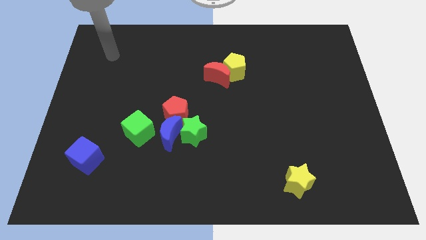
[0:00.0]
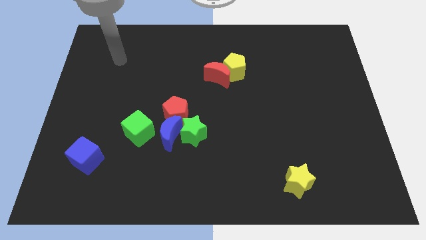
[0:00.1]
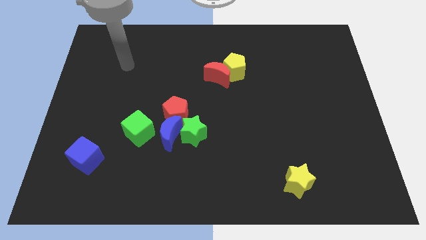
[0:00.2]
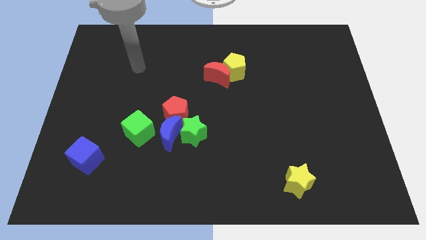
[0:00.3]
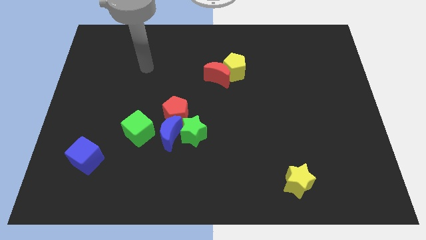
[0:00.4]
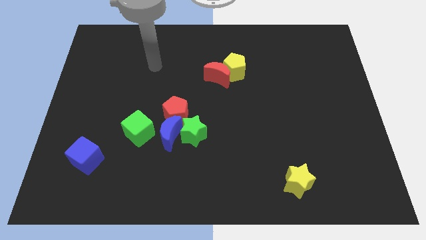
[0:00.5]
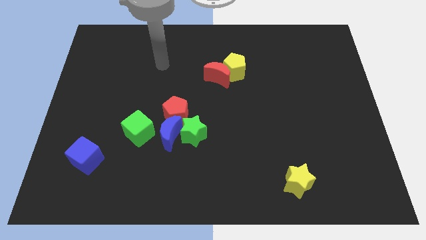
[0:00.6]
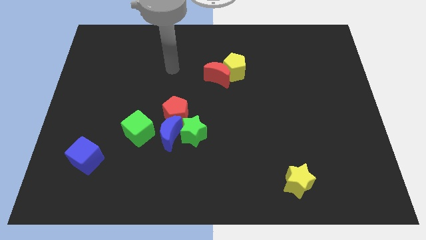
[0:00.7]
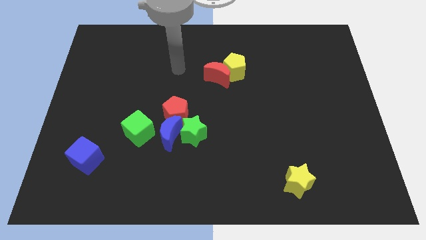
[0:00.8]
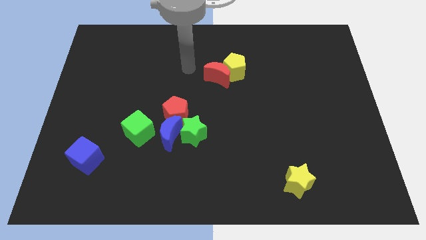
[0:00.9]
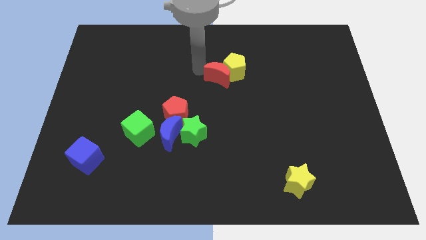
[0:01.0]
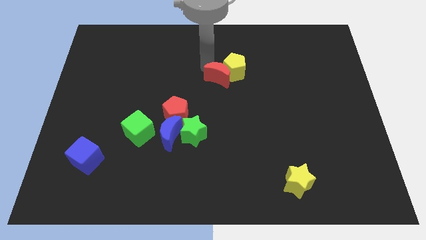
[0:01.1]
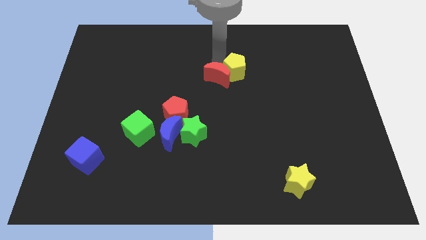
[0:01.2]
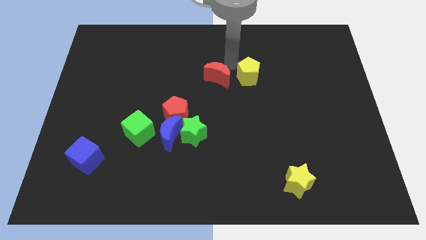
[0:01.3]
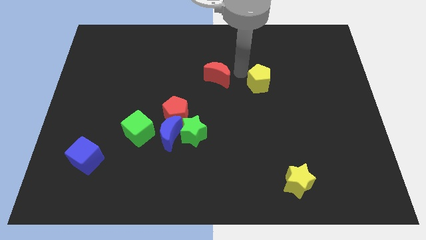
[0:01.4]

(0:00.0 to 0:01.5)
move the red moon away from the yellow pentagon

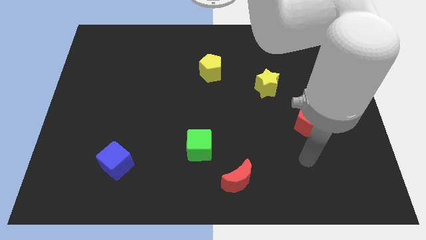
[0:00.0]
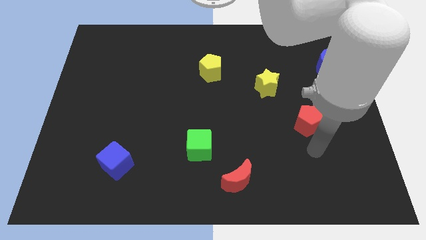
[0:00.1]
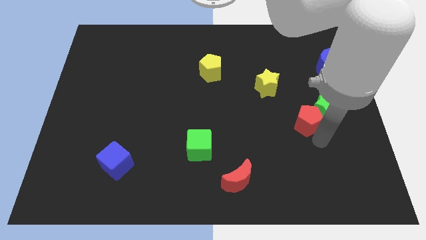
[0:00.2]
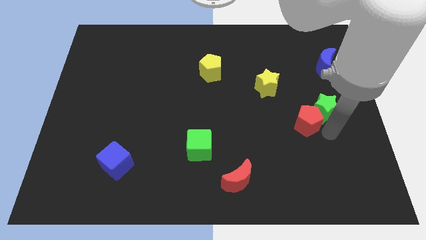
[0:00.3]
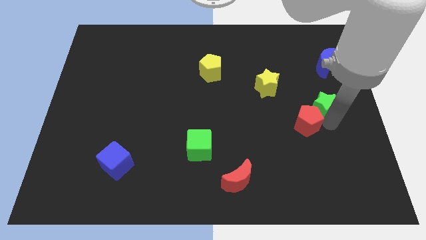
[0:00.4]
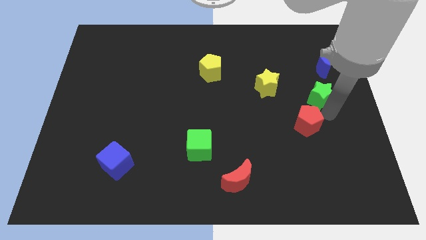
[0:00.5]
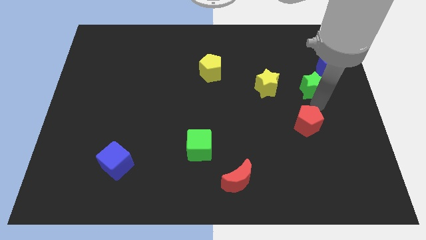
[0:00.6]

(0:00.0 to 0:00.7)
pull the red pentagon apart from the green star

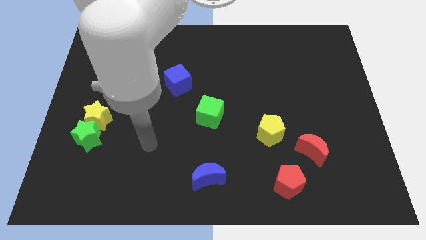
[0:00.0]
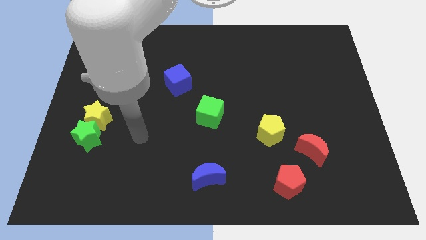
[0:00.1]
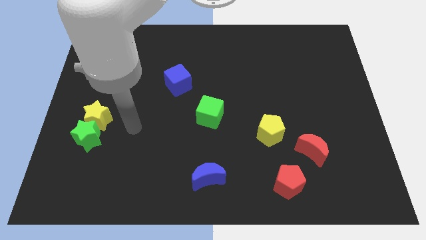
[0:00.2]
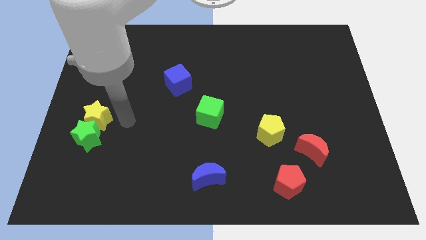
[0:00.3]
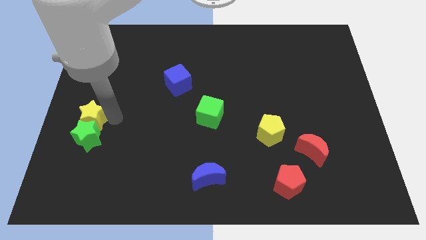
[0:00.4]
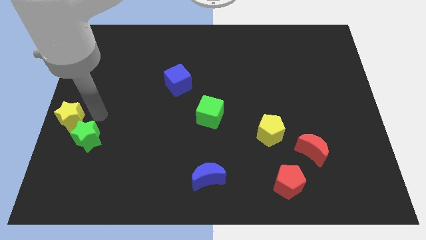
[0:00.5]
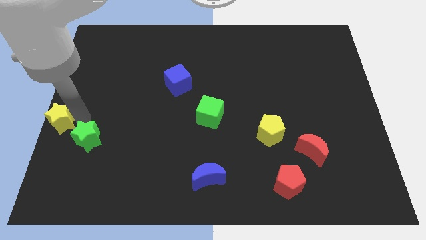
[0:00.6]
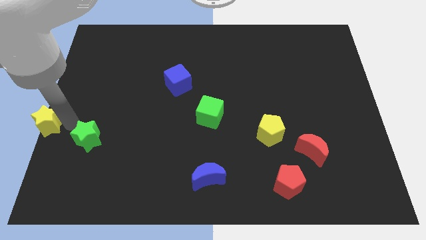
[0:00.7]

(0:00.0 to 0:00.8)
pull the green star apart from the yellow star

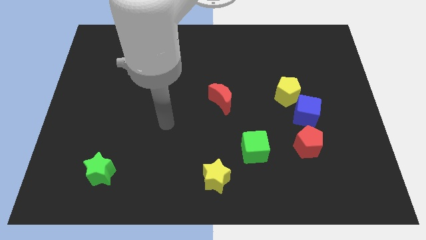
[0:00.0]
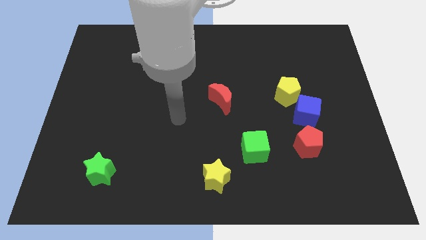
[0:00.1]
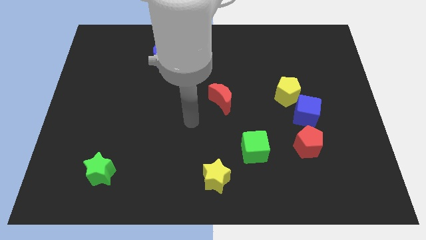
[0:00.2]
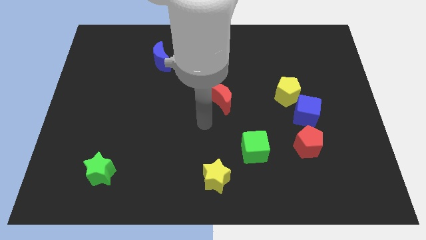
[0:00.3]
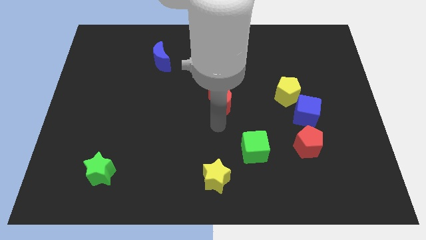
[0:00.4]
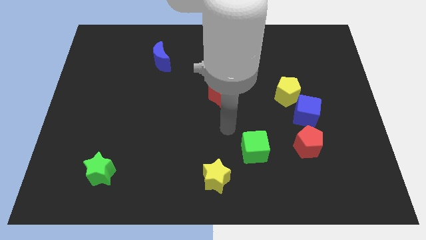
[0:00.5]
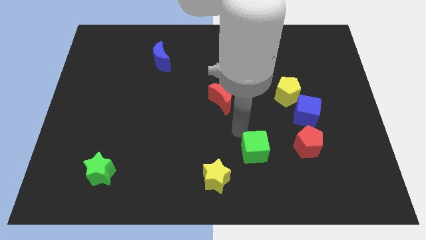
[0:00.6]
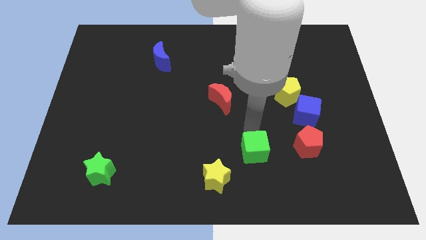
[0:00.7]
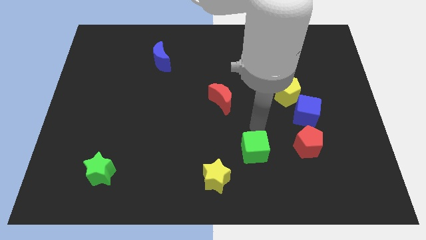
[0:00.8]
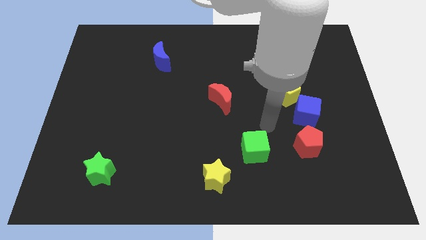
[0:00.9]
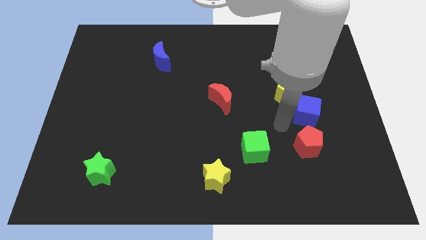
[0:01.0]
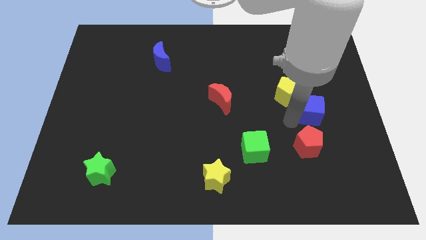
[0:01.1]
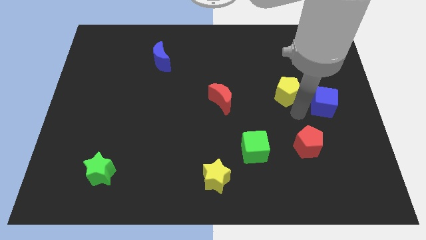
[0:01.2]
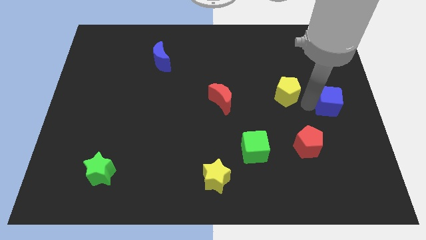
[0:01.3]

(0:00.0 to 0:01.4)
move the yellow pentagon away from the blue cube

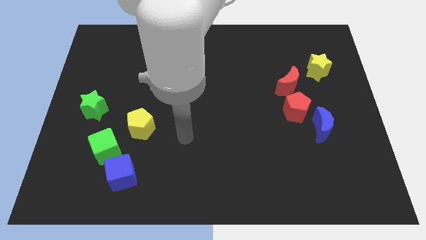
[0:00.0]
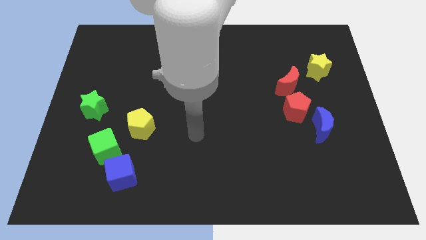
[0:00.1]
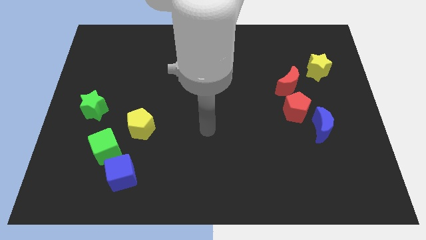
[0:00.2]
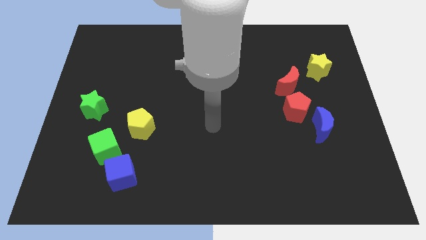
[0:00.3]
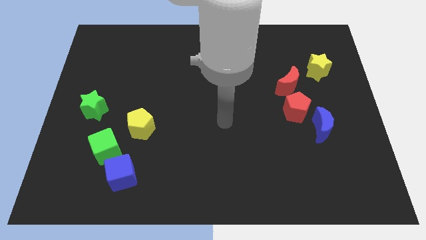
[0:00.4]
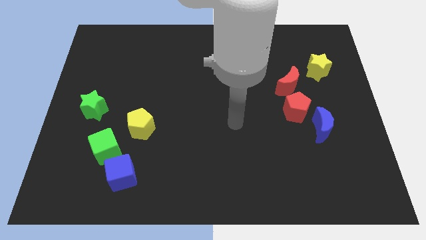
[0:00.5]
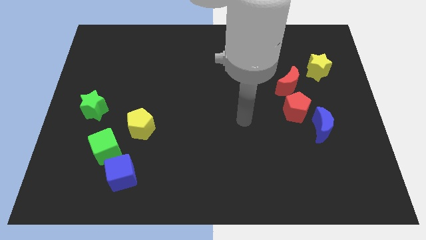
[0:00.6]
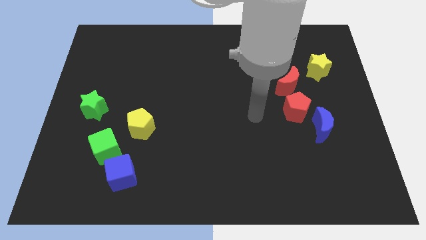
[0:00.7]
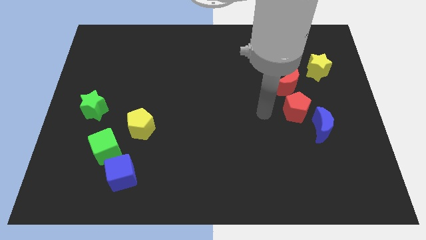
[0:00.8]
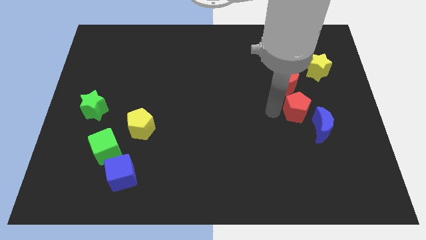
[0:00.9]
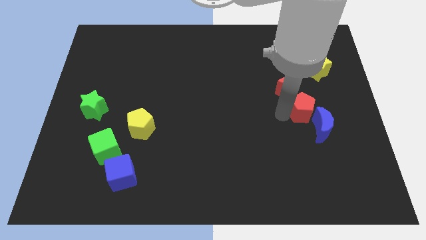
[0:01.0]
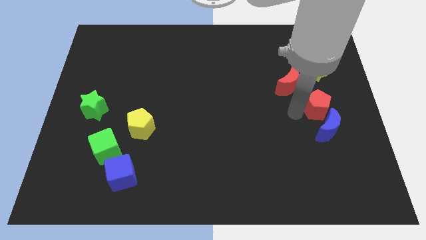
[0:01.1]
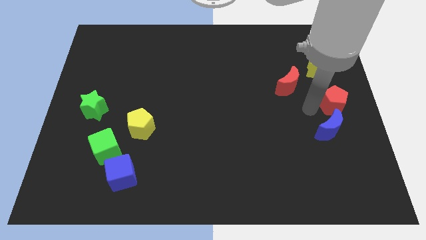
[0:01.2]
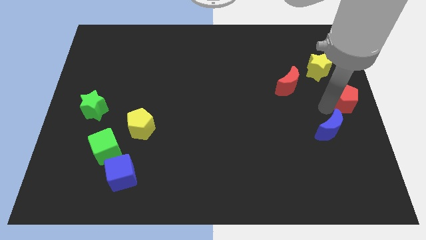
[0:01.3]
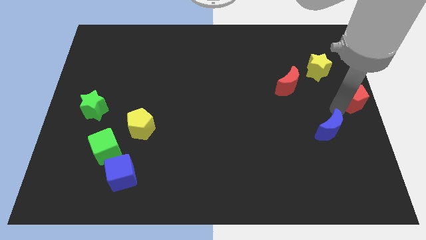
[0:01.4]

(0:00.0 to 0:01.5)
move the blue moon away from the red pentagon

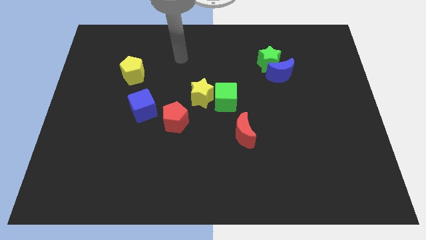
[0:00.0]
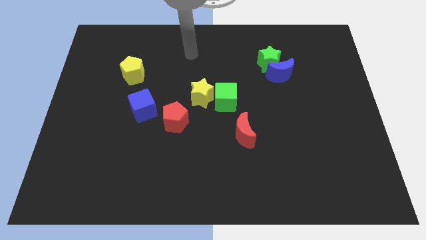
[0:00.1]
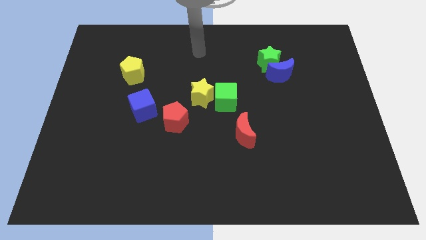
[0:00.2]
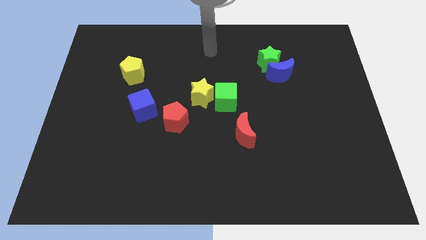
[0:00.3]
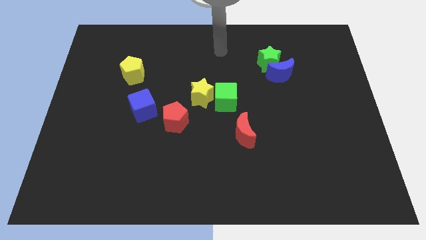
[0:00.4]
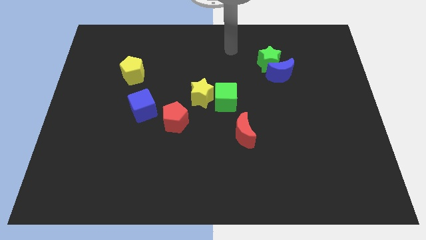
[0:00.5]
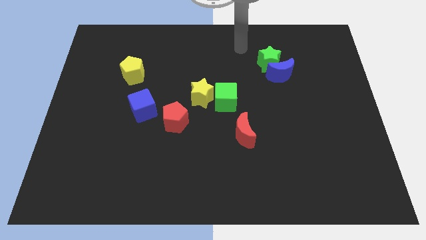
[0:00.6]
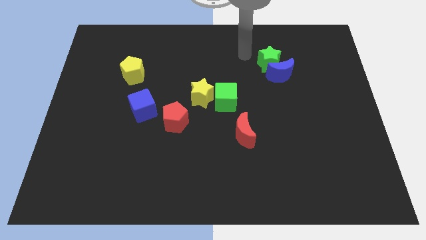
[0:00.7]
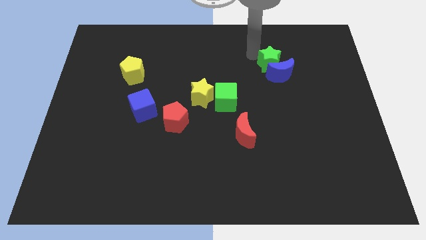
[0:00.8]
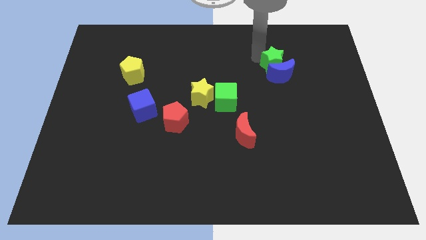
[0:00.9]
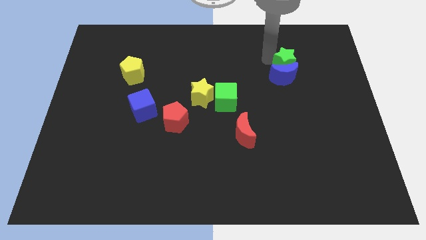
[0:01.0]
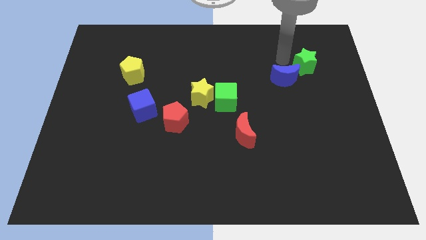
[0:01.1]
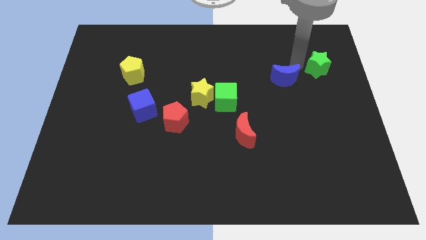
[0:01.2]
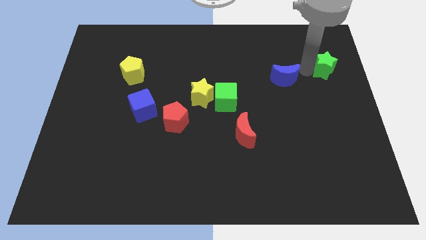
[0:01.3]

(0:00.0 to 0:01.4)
pull the blue moon apart from the green star

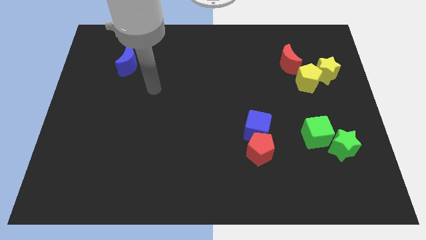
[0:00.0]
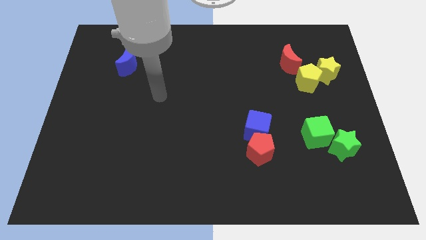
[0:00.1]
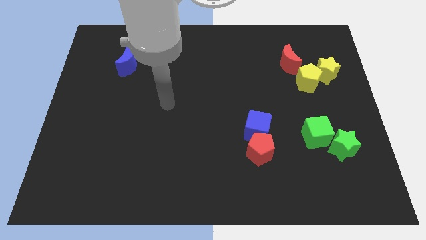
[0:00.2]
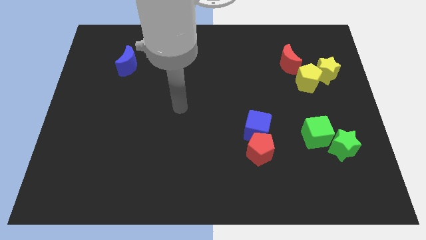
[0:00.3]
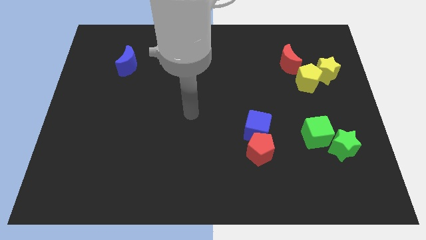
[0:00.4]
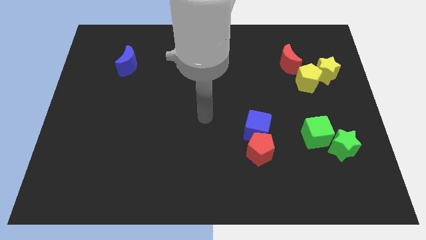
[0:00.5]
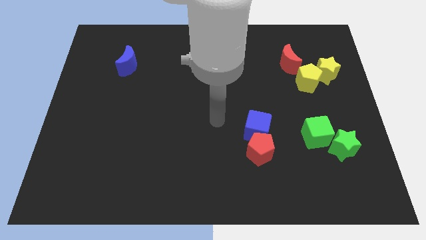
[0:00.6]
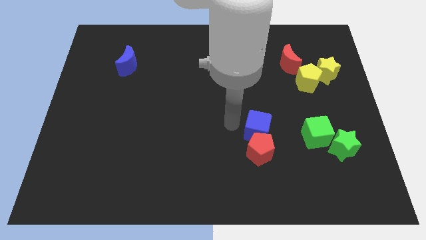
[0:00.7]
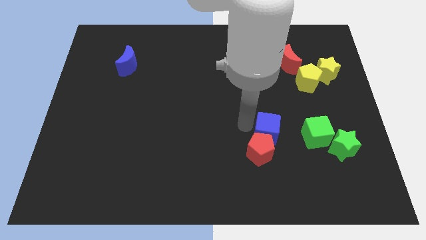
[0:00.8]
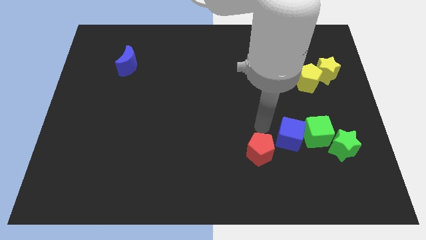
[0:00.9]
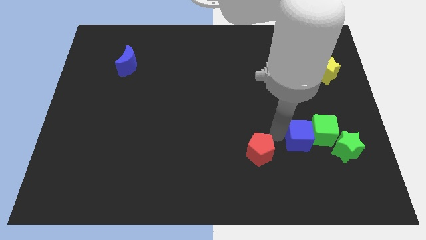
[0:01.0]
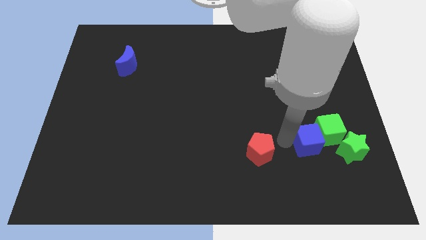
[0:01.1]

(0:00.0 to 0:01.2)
separate the red pentagon from the blue cube

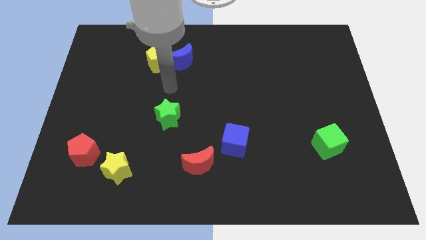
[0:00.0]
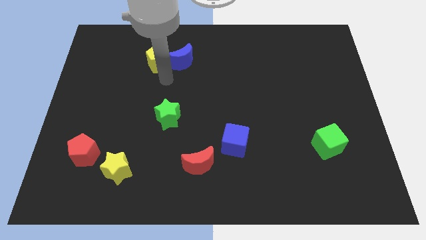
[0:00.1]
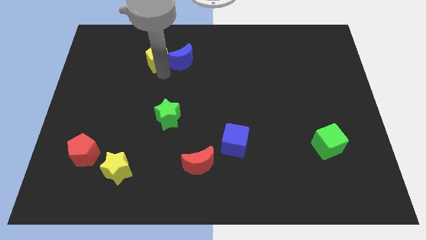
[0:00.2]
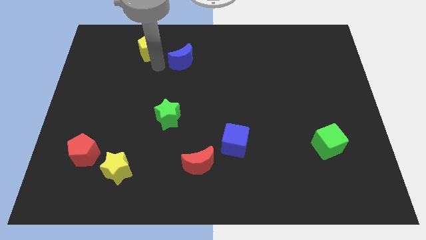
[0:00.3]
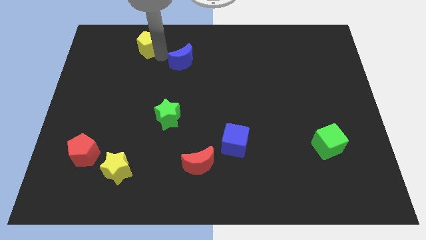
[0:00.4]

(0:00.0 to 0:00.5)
separate the blue moon from the yellow pentagon

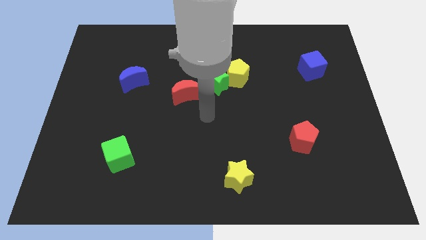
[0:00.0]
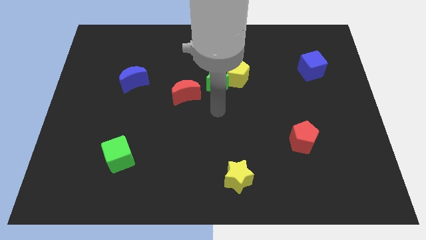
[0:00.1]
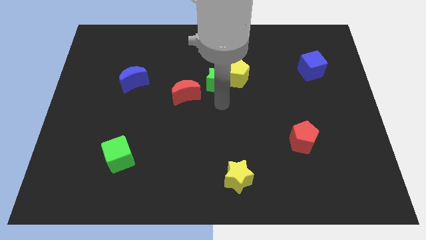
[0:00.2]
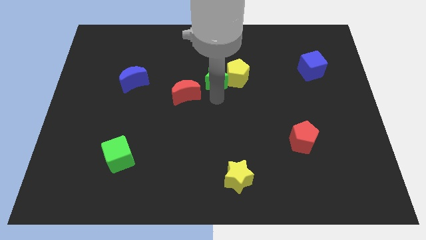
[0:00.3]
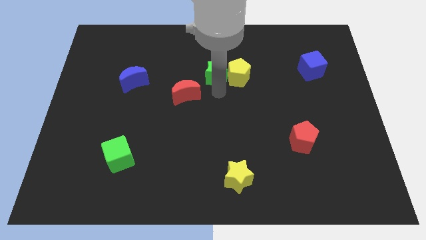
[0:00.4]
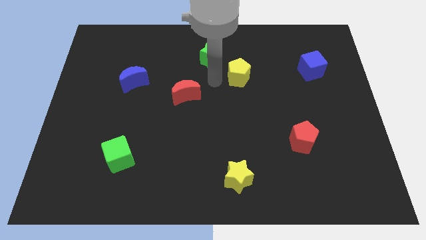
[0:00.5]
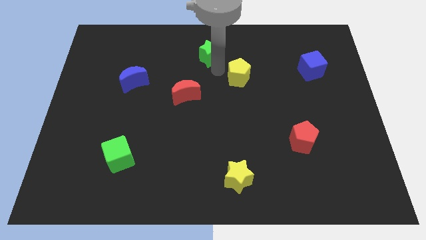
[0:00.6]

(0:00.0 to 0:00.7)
separate the yellow pentagon from the green star
